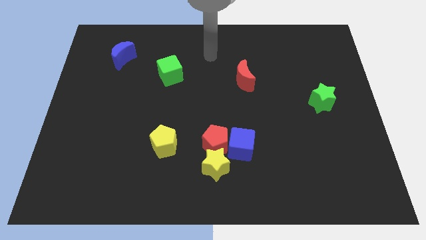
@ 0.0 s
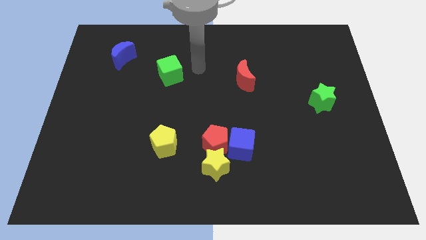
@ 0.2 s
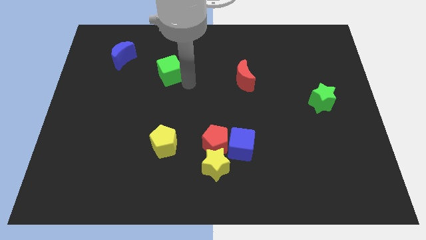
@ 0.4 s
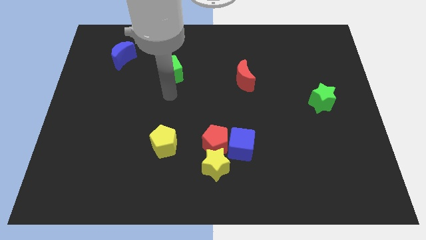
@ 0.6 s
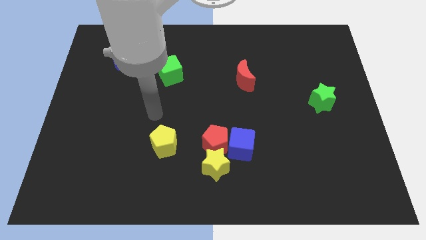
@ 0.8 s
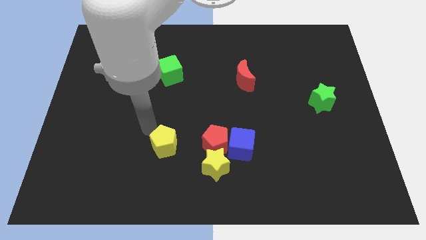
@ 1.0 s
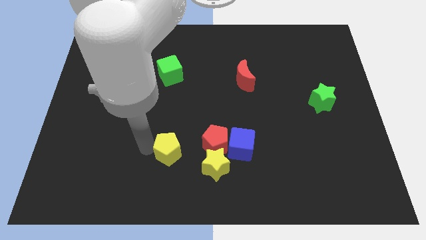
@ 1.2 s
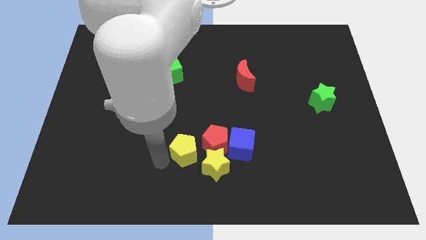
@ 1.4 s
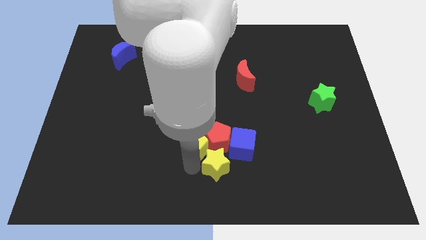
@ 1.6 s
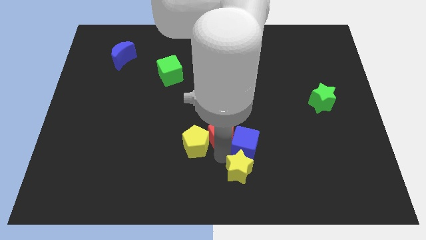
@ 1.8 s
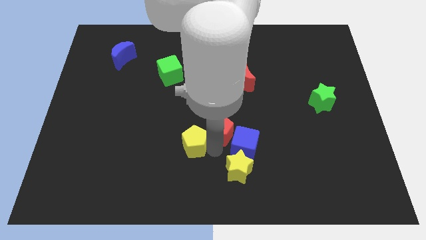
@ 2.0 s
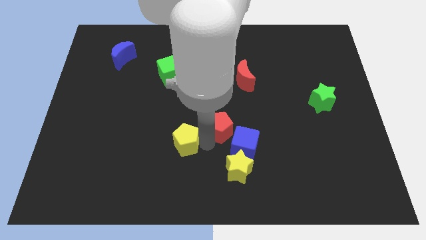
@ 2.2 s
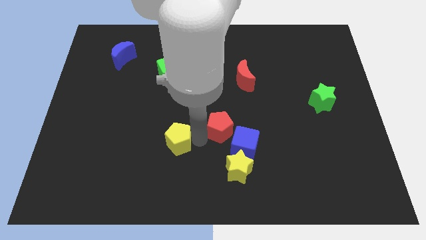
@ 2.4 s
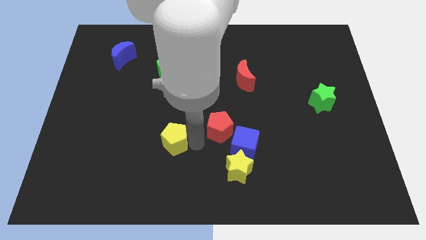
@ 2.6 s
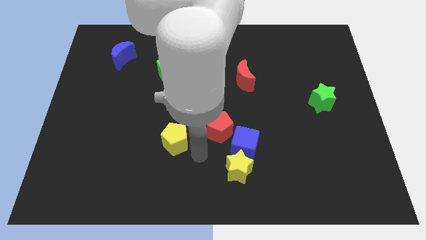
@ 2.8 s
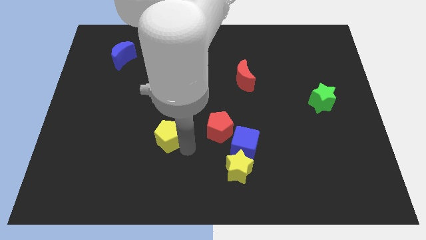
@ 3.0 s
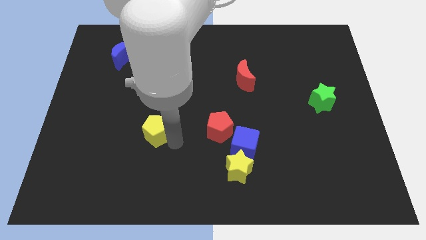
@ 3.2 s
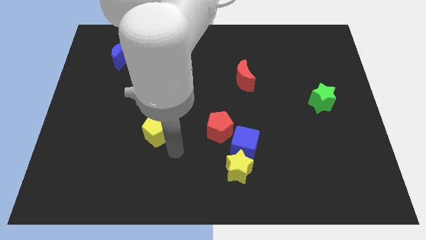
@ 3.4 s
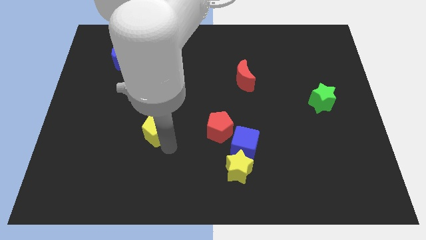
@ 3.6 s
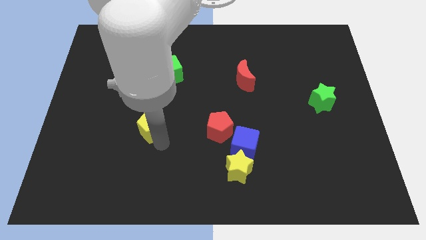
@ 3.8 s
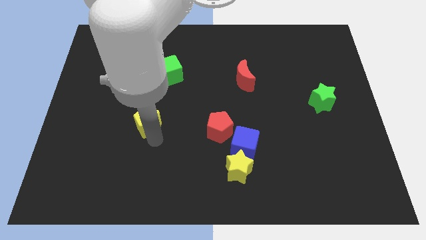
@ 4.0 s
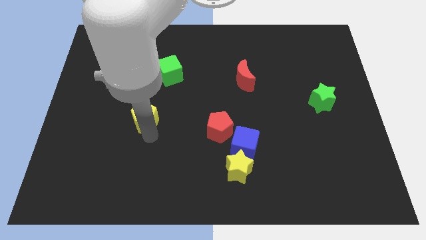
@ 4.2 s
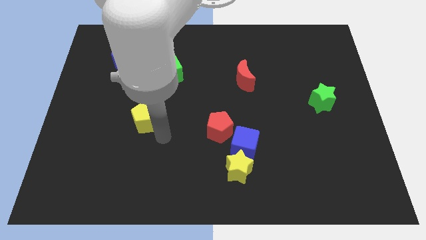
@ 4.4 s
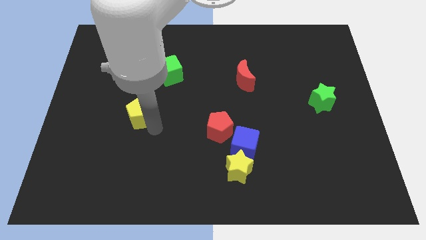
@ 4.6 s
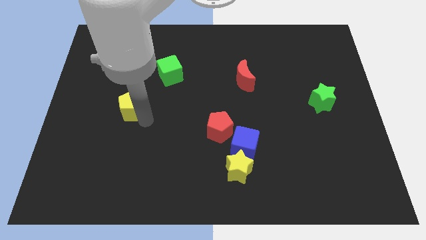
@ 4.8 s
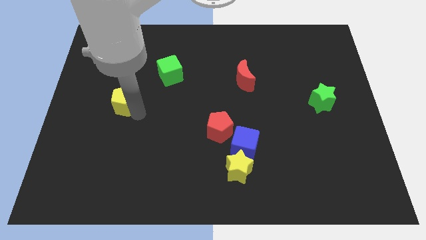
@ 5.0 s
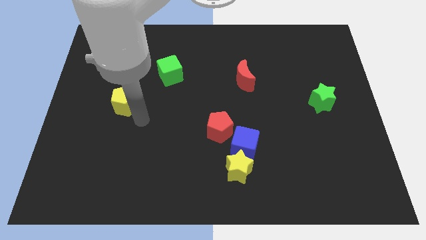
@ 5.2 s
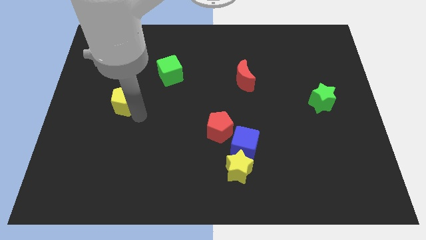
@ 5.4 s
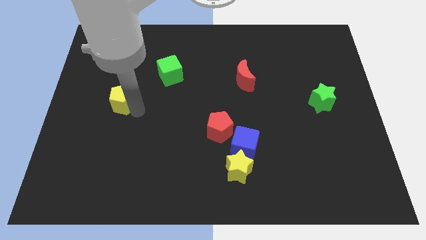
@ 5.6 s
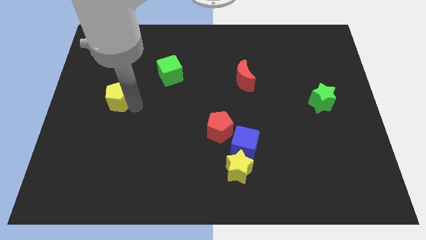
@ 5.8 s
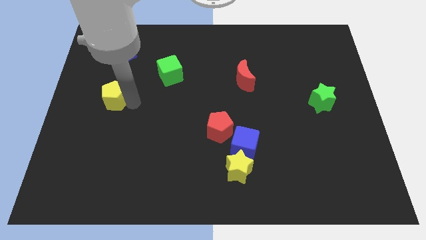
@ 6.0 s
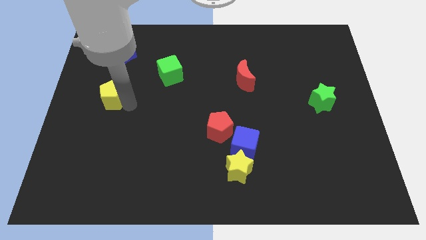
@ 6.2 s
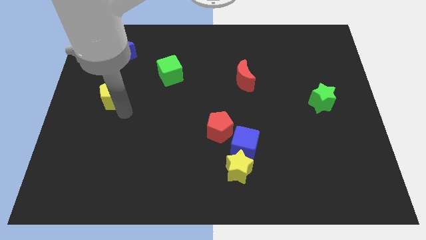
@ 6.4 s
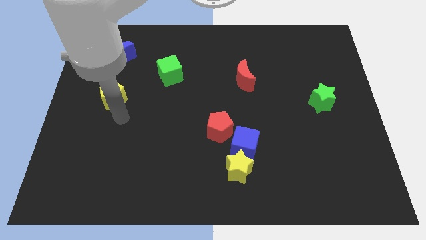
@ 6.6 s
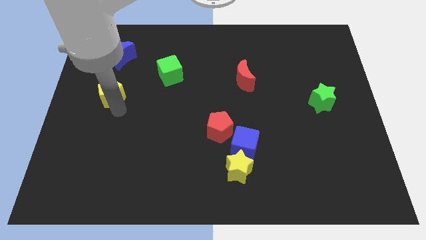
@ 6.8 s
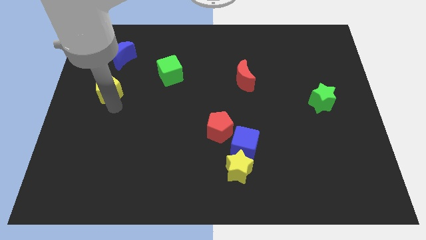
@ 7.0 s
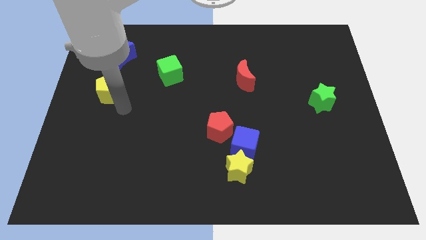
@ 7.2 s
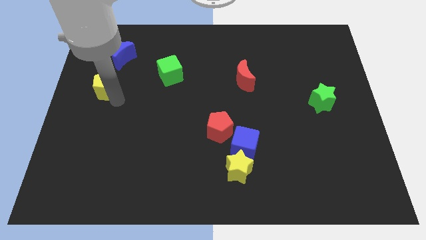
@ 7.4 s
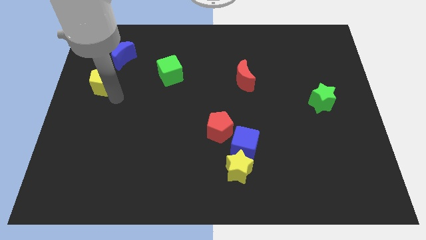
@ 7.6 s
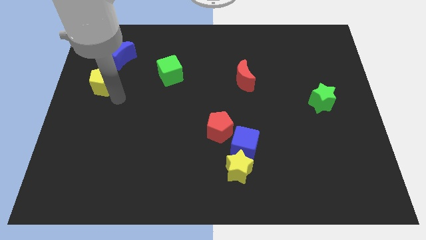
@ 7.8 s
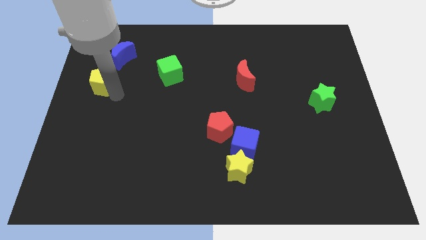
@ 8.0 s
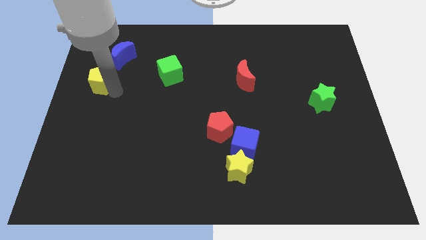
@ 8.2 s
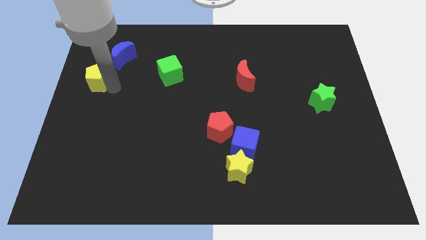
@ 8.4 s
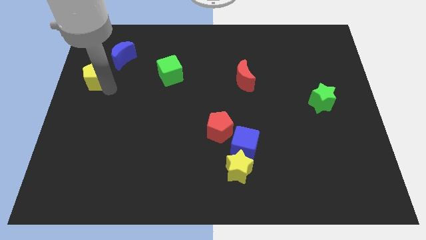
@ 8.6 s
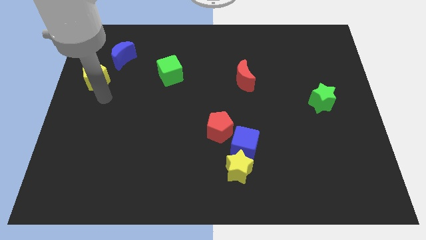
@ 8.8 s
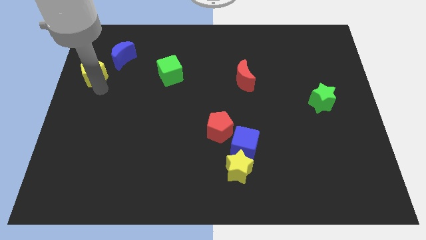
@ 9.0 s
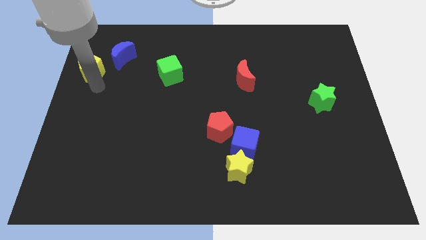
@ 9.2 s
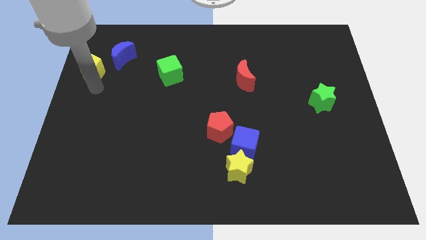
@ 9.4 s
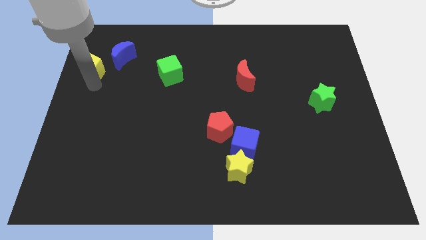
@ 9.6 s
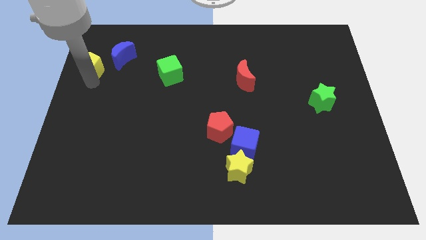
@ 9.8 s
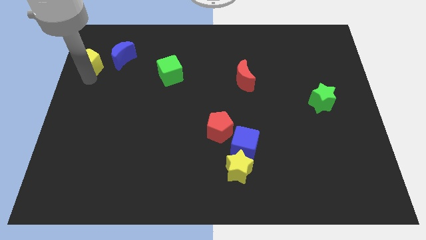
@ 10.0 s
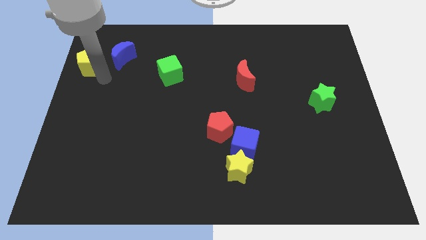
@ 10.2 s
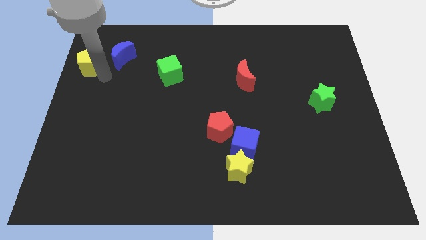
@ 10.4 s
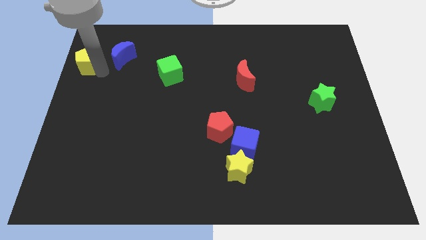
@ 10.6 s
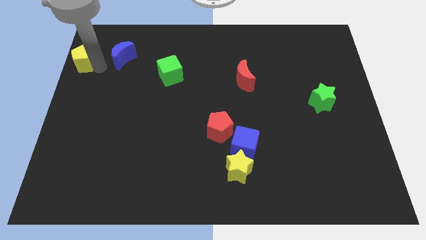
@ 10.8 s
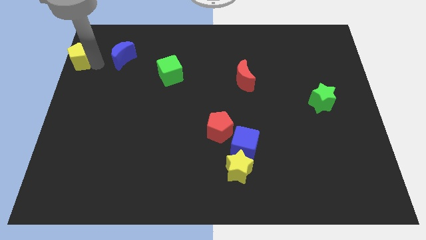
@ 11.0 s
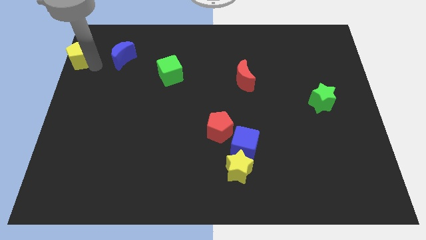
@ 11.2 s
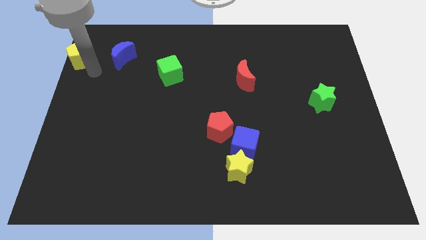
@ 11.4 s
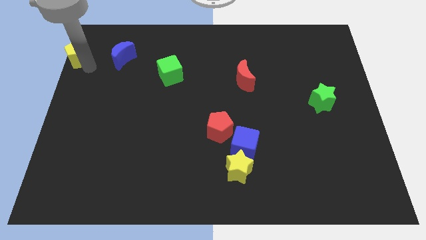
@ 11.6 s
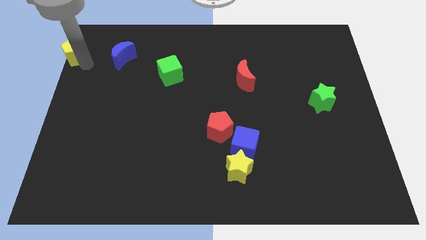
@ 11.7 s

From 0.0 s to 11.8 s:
slide the yellow pentagon to the upper left corner
